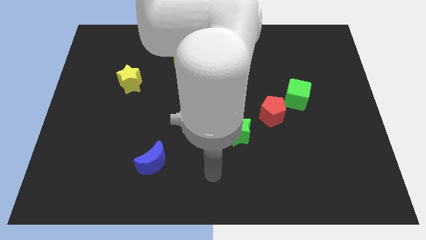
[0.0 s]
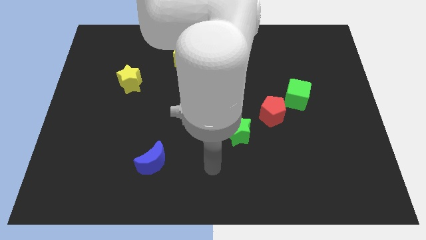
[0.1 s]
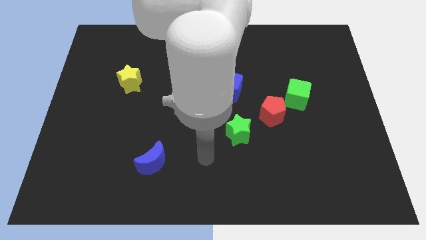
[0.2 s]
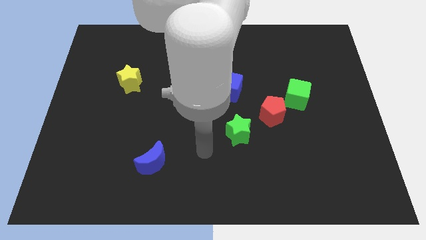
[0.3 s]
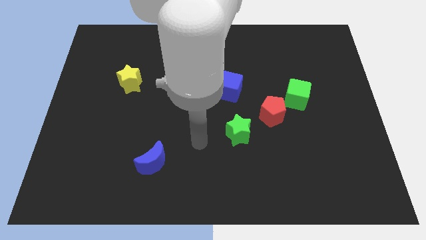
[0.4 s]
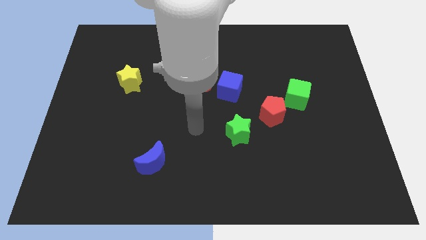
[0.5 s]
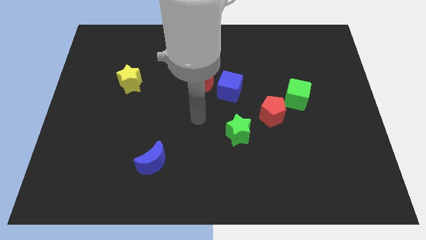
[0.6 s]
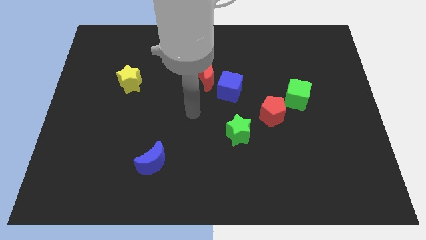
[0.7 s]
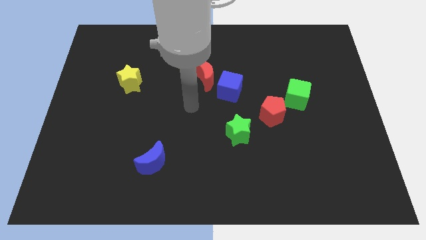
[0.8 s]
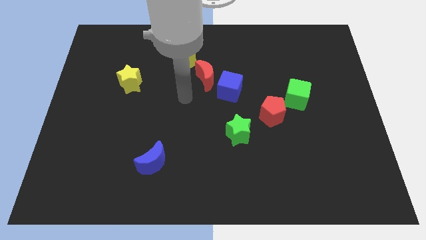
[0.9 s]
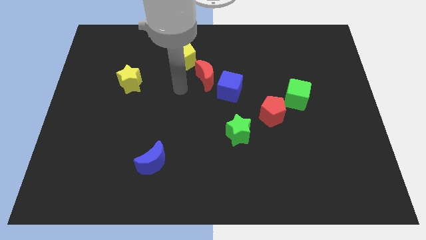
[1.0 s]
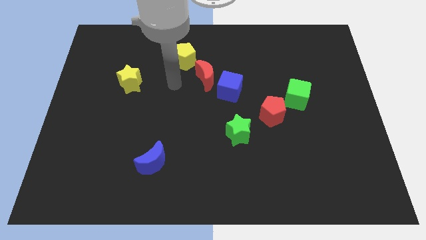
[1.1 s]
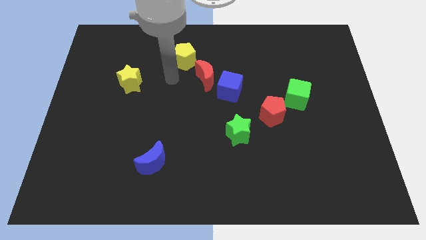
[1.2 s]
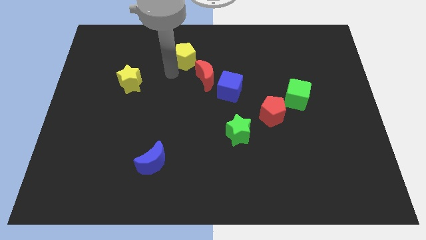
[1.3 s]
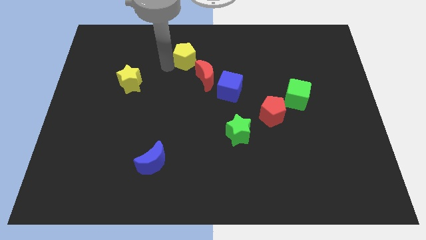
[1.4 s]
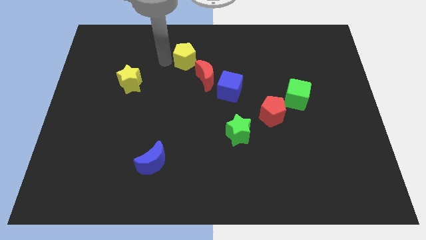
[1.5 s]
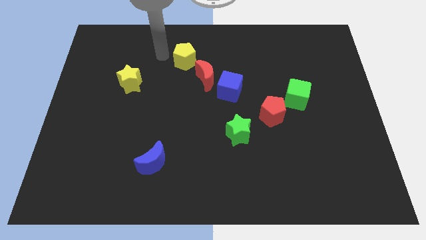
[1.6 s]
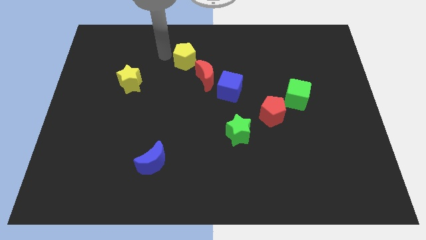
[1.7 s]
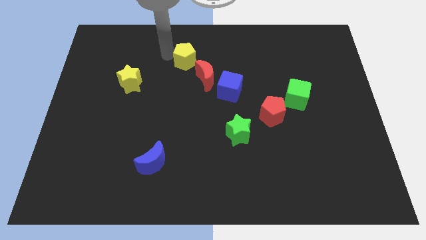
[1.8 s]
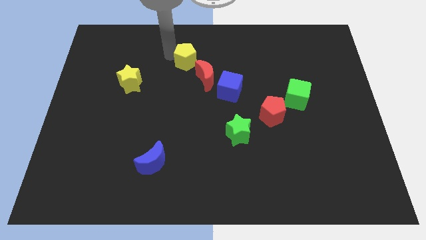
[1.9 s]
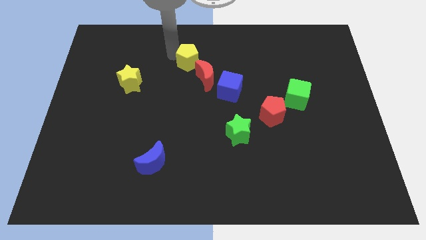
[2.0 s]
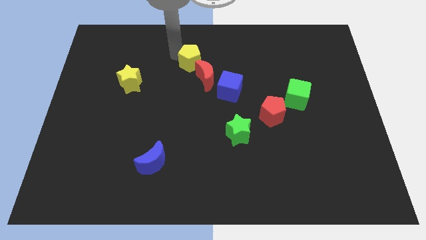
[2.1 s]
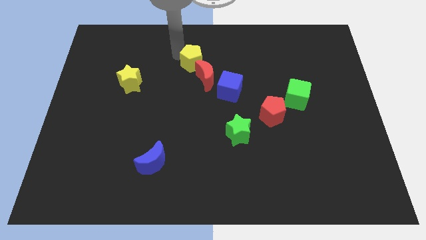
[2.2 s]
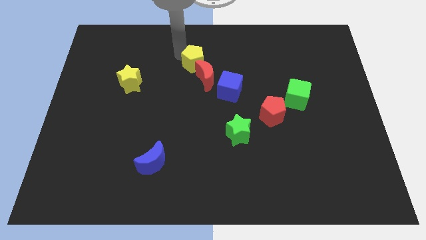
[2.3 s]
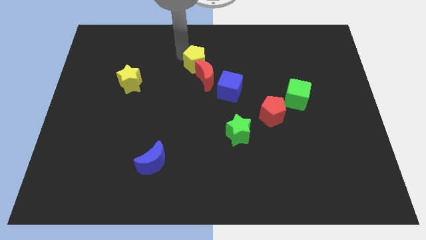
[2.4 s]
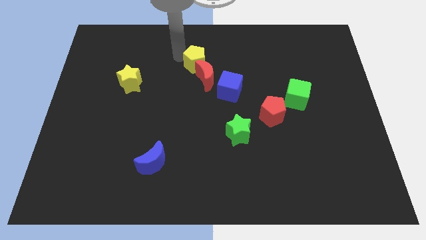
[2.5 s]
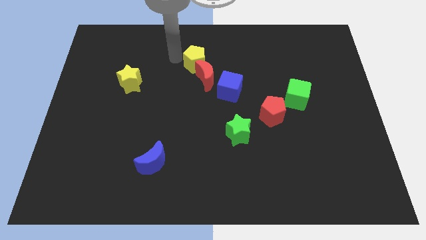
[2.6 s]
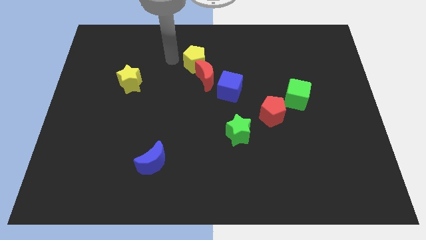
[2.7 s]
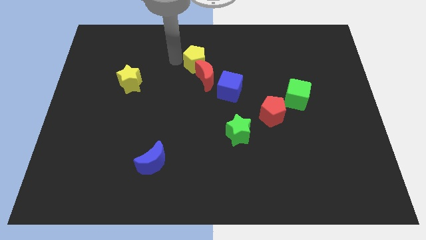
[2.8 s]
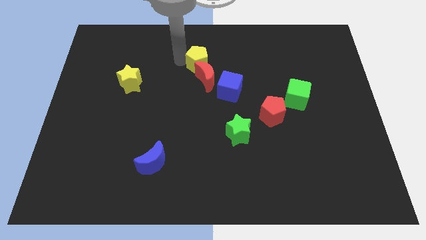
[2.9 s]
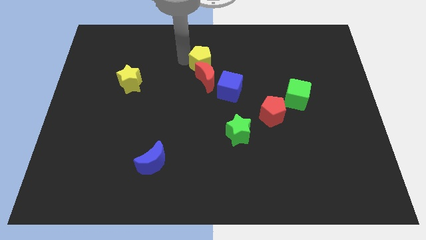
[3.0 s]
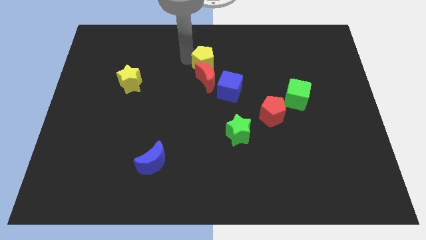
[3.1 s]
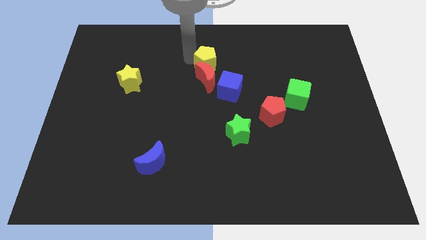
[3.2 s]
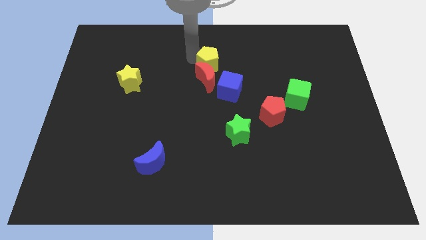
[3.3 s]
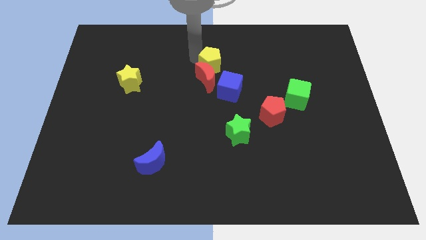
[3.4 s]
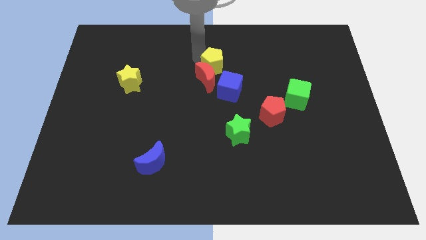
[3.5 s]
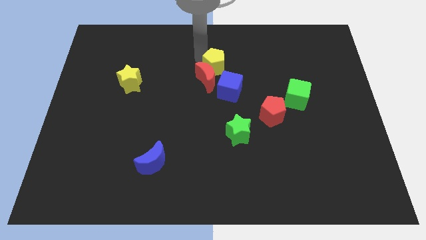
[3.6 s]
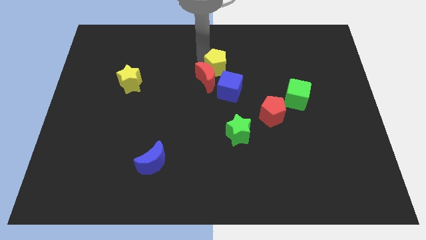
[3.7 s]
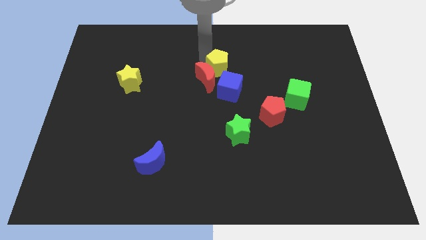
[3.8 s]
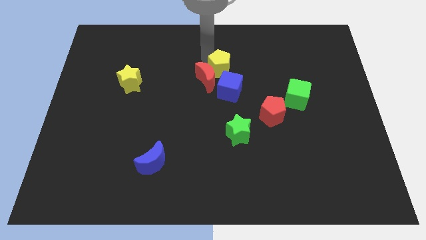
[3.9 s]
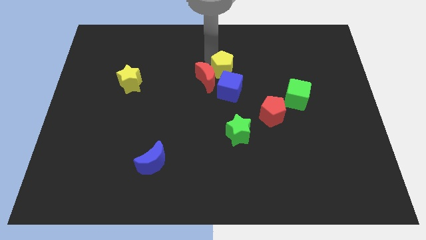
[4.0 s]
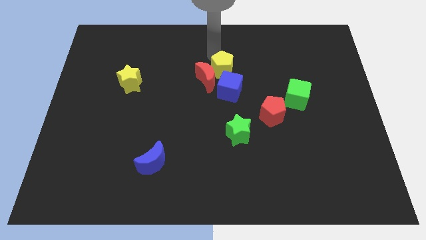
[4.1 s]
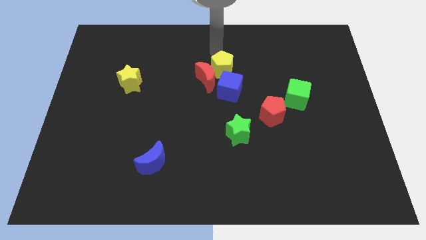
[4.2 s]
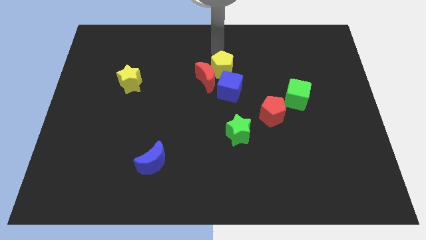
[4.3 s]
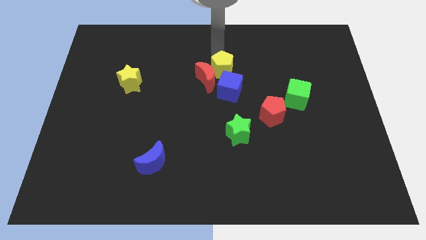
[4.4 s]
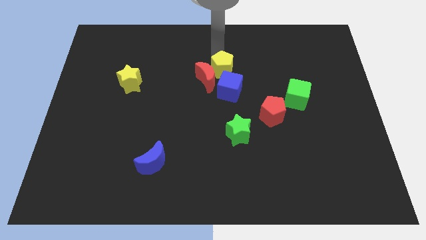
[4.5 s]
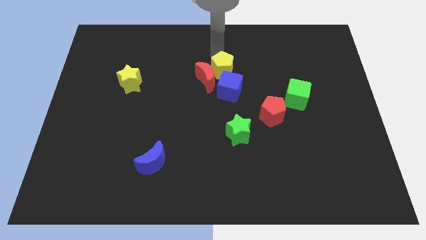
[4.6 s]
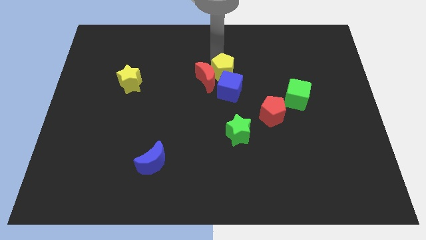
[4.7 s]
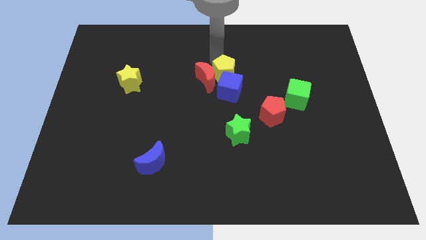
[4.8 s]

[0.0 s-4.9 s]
move the yellow pentagon close to the blue cube

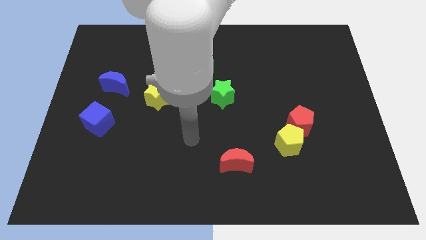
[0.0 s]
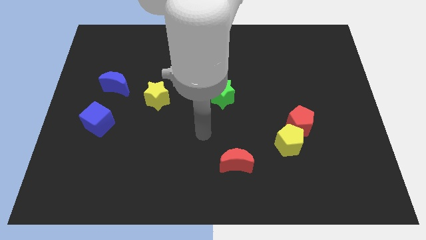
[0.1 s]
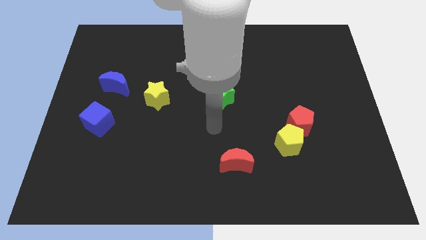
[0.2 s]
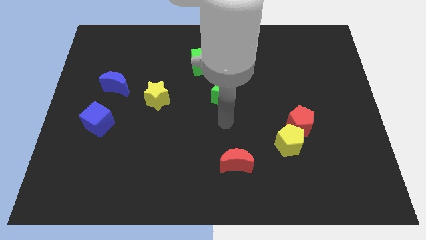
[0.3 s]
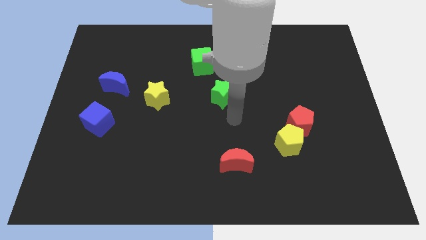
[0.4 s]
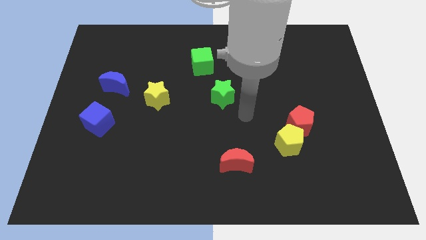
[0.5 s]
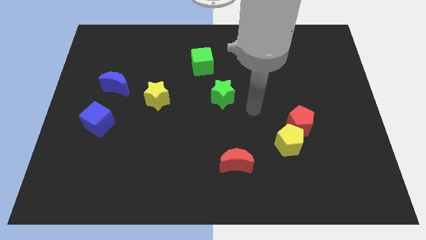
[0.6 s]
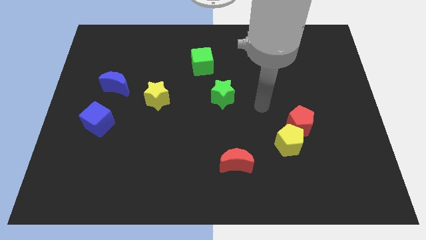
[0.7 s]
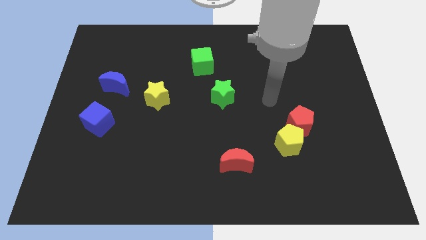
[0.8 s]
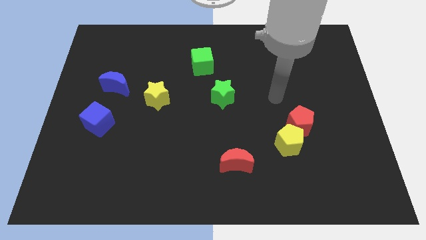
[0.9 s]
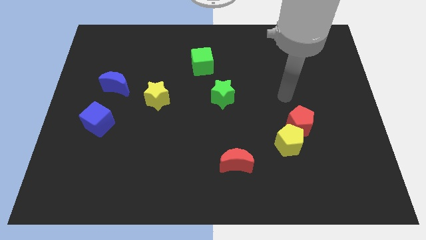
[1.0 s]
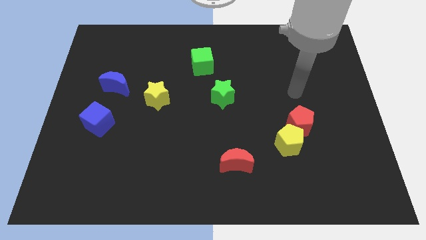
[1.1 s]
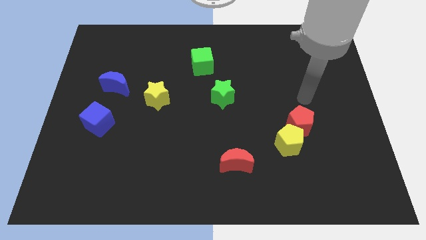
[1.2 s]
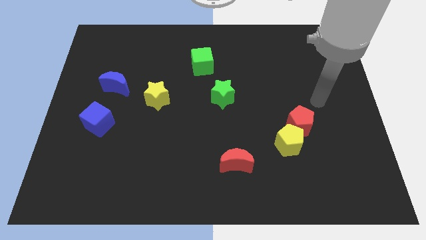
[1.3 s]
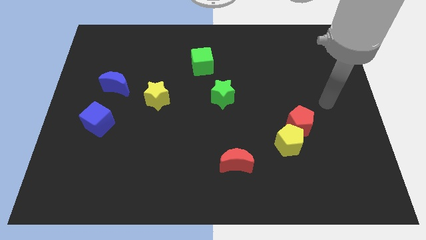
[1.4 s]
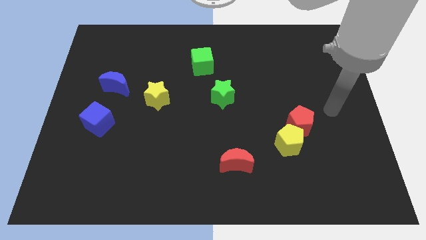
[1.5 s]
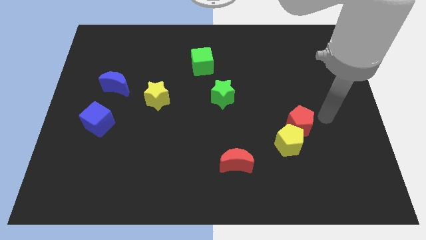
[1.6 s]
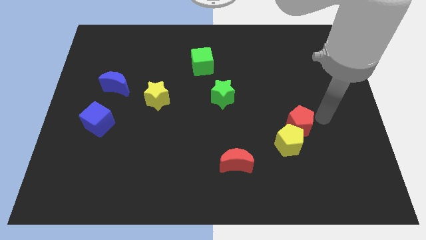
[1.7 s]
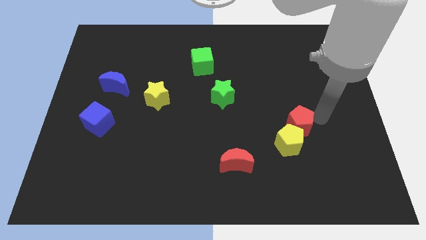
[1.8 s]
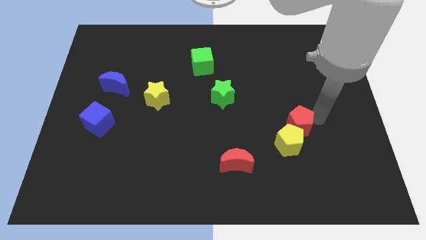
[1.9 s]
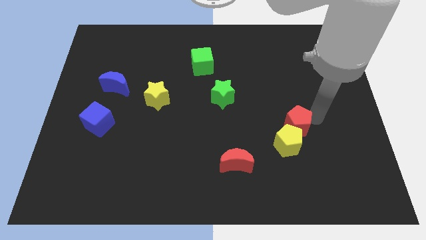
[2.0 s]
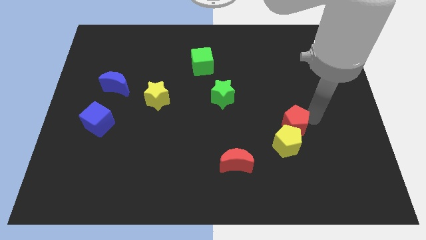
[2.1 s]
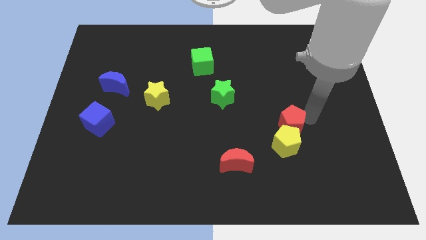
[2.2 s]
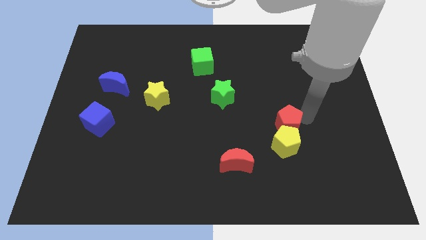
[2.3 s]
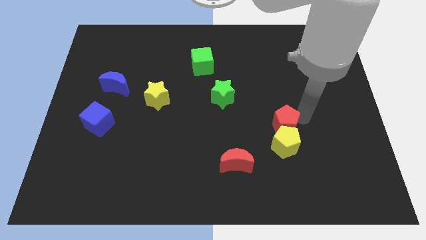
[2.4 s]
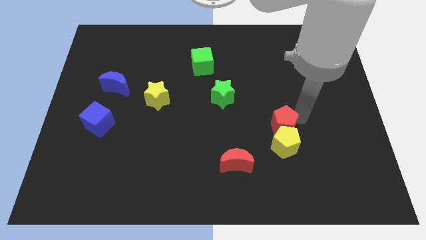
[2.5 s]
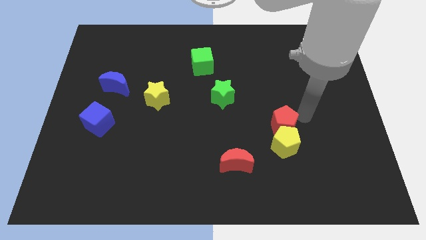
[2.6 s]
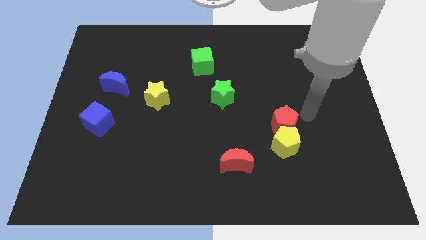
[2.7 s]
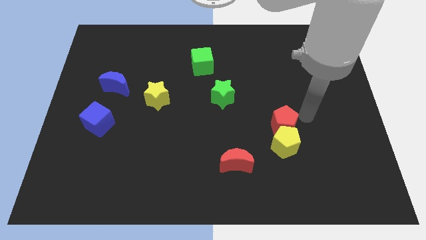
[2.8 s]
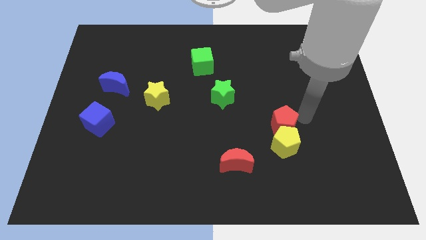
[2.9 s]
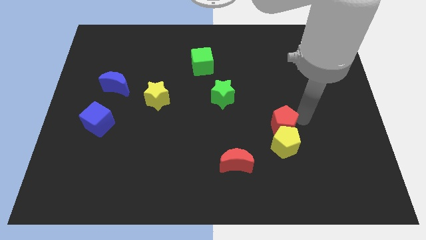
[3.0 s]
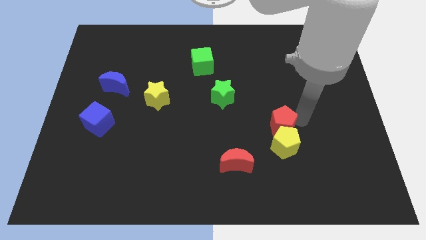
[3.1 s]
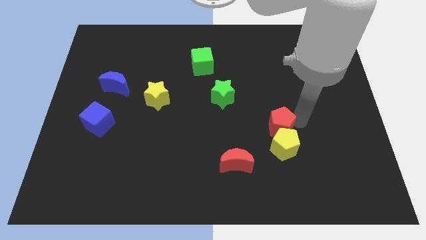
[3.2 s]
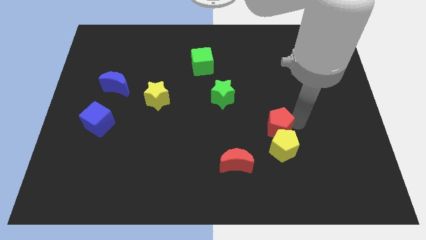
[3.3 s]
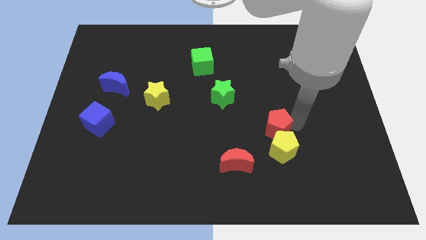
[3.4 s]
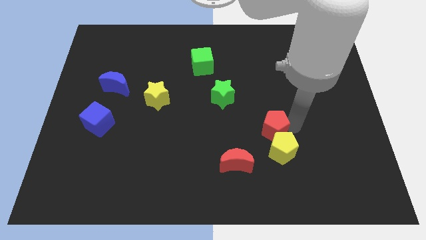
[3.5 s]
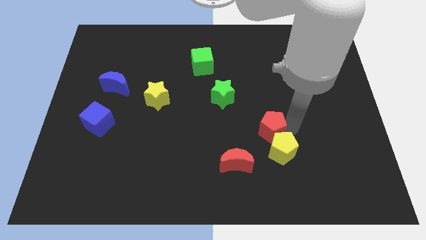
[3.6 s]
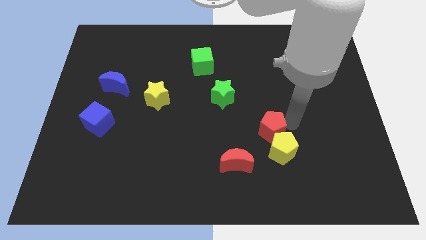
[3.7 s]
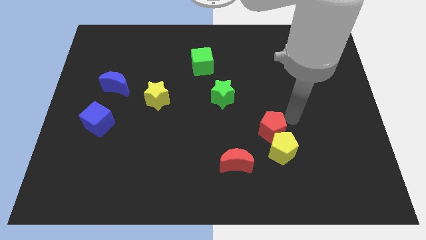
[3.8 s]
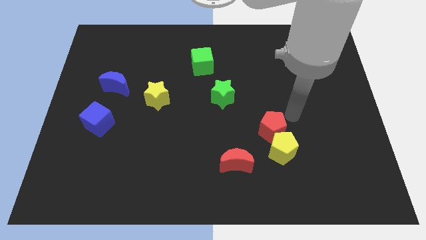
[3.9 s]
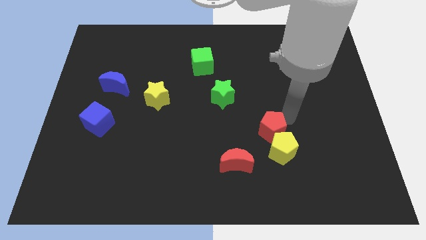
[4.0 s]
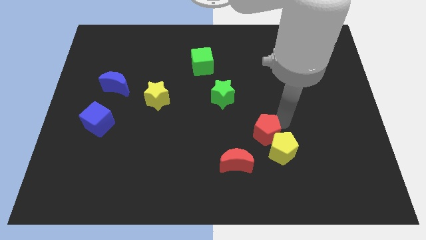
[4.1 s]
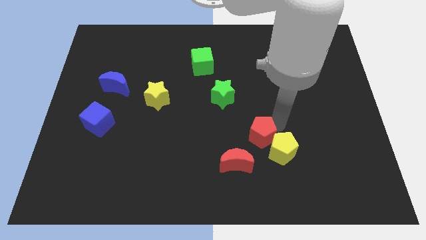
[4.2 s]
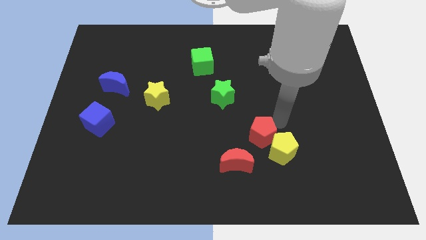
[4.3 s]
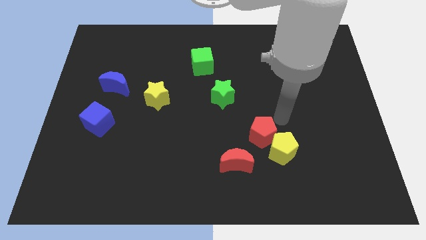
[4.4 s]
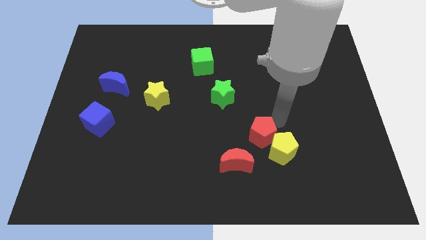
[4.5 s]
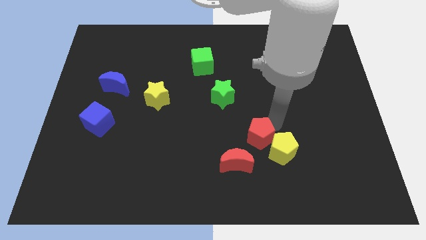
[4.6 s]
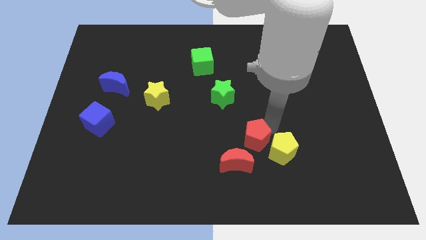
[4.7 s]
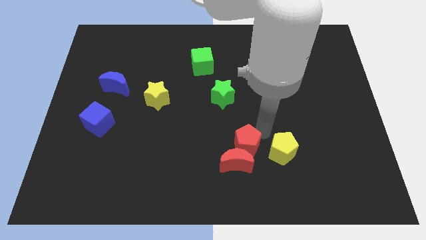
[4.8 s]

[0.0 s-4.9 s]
move the red pentagon next to the red moon
